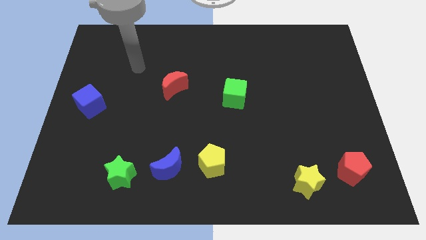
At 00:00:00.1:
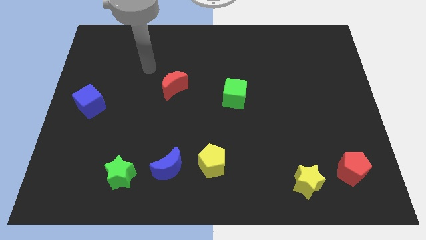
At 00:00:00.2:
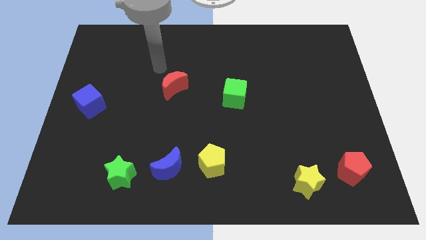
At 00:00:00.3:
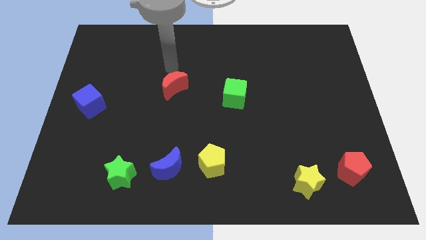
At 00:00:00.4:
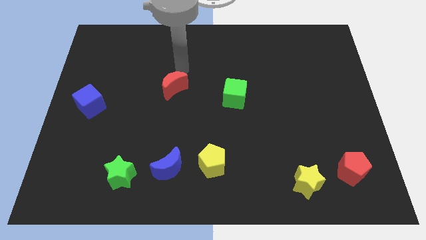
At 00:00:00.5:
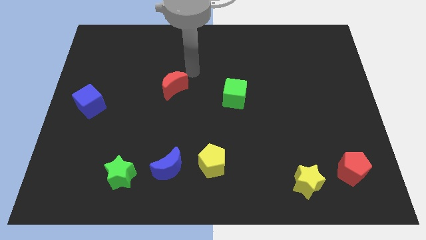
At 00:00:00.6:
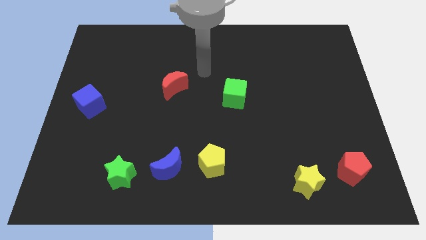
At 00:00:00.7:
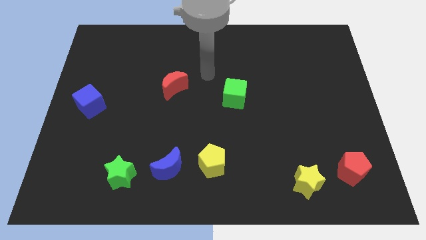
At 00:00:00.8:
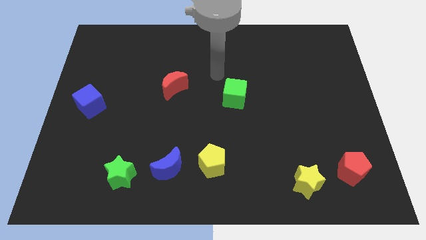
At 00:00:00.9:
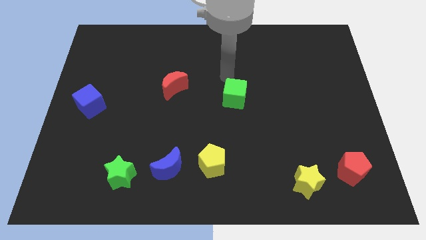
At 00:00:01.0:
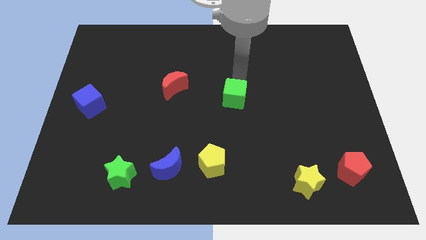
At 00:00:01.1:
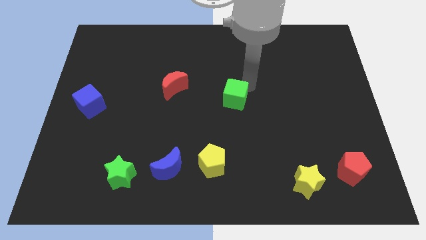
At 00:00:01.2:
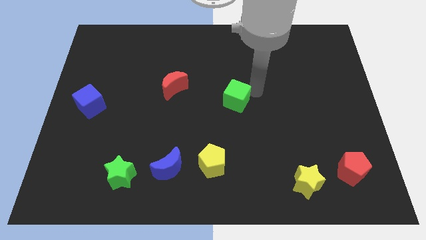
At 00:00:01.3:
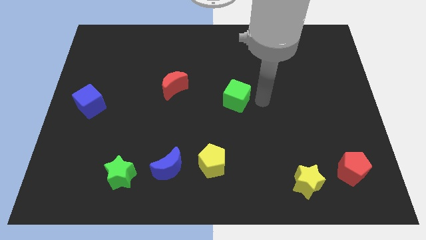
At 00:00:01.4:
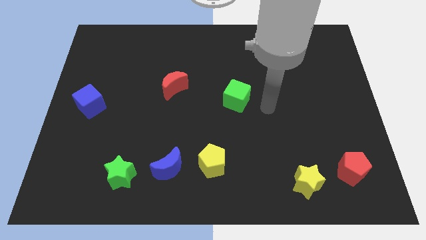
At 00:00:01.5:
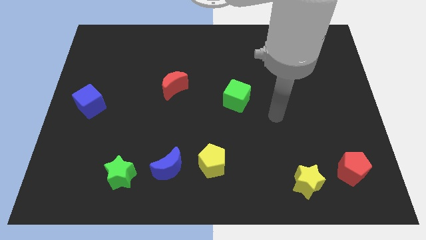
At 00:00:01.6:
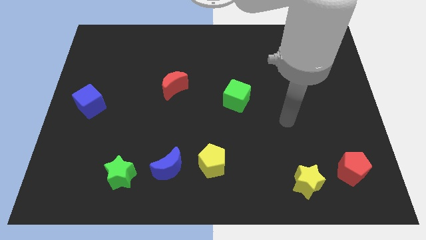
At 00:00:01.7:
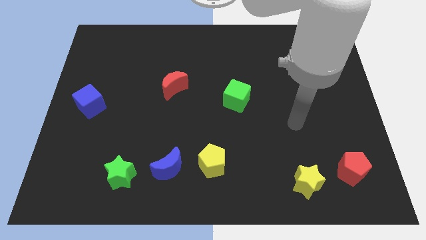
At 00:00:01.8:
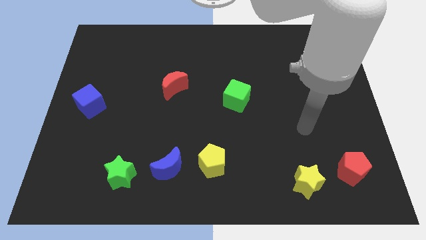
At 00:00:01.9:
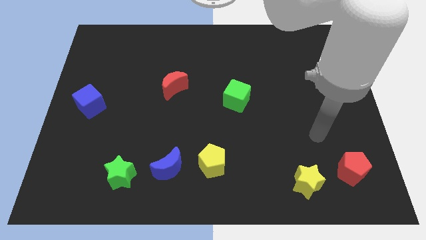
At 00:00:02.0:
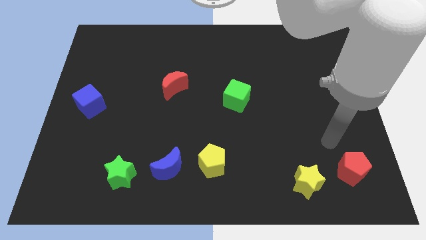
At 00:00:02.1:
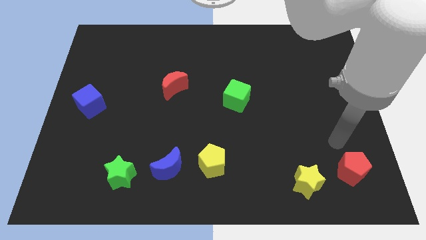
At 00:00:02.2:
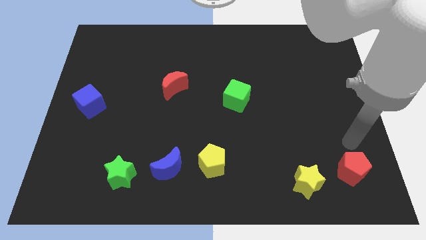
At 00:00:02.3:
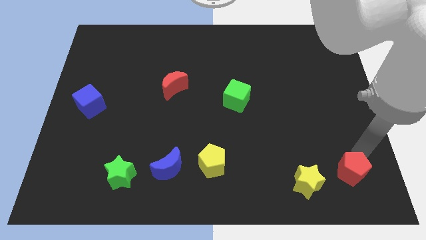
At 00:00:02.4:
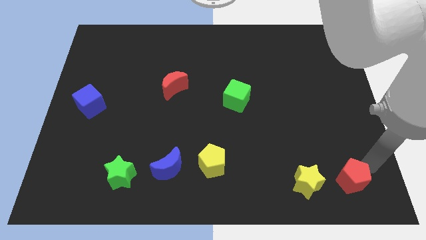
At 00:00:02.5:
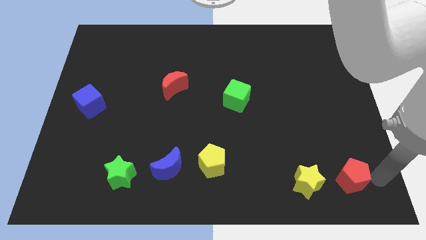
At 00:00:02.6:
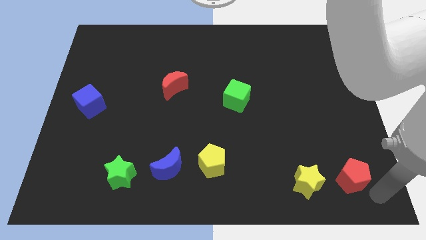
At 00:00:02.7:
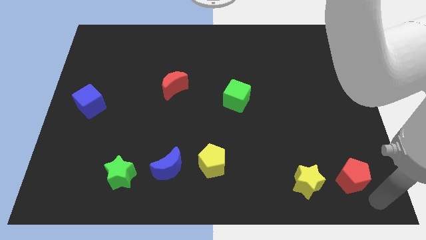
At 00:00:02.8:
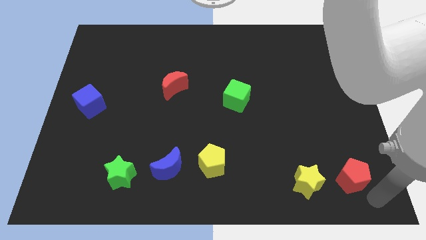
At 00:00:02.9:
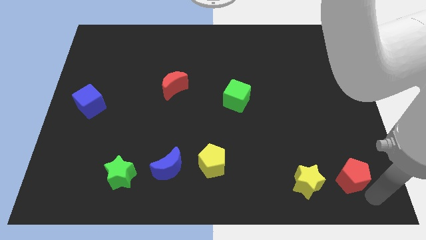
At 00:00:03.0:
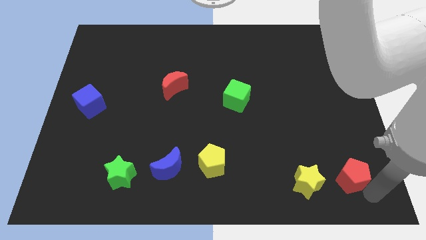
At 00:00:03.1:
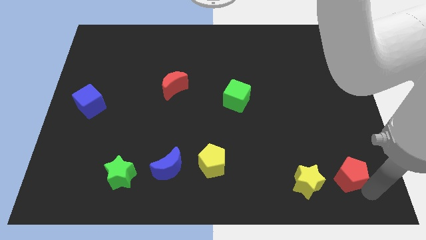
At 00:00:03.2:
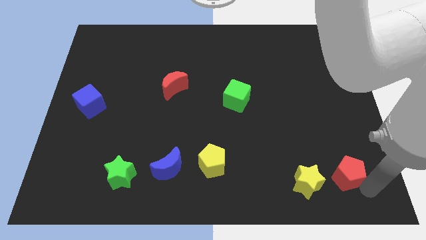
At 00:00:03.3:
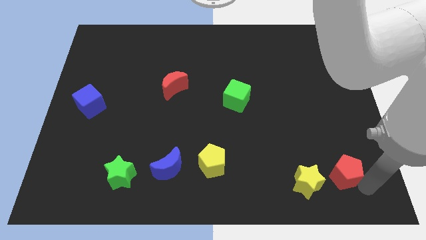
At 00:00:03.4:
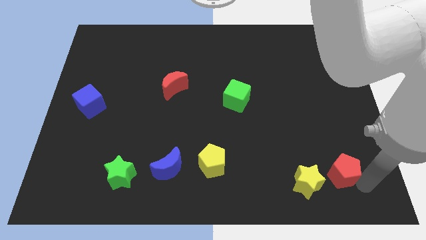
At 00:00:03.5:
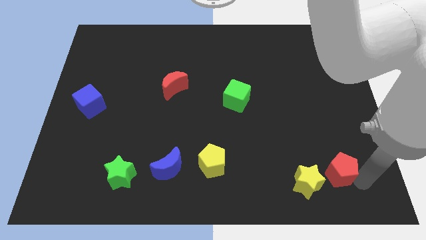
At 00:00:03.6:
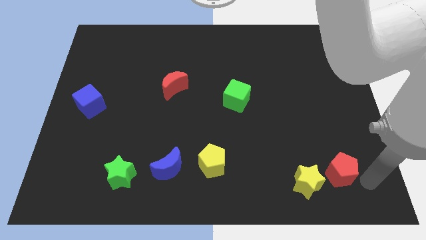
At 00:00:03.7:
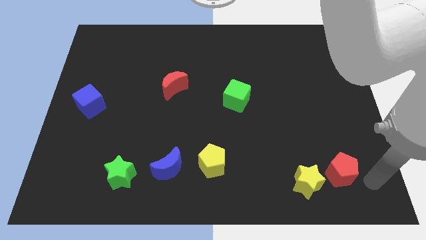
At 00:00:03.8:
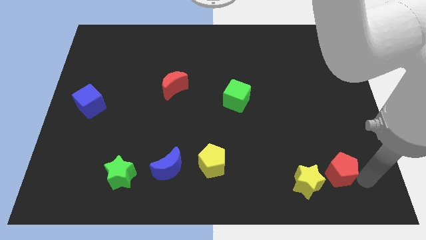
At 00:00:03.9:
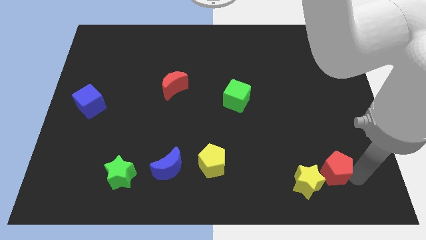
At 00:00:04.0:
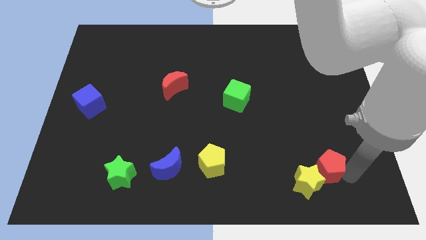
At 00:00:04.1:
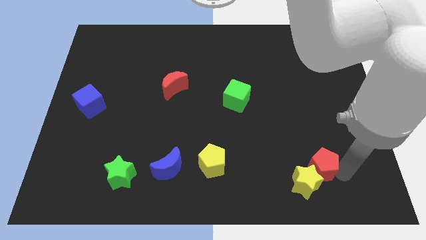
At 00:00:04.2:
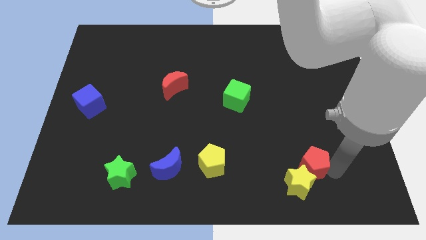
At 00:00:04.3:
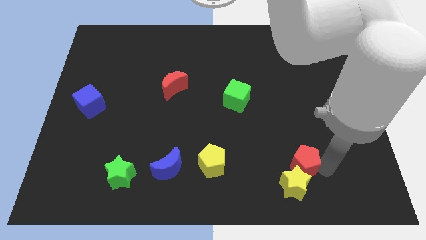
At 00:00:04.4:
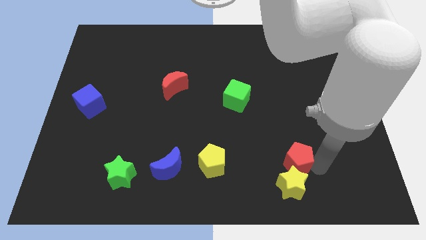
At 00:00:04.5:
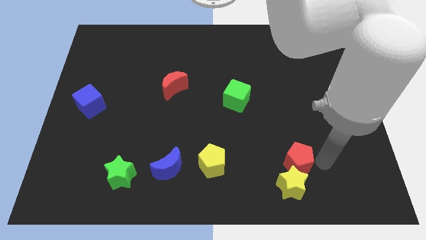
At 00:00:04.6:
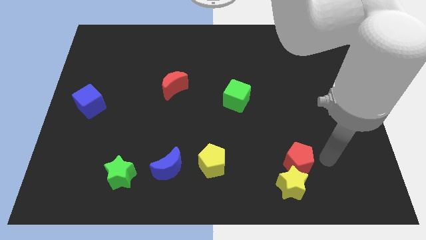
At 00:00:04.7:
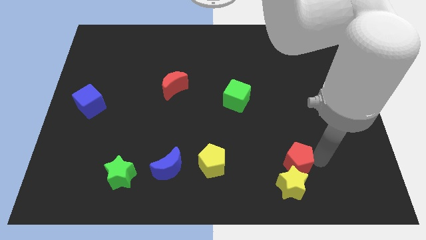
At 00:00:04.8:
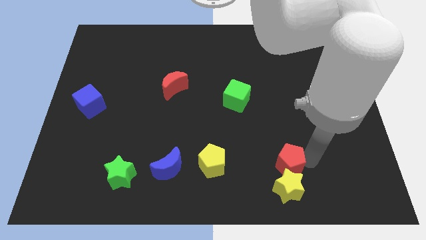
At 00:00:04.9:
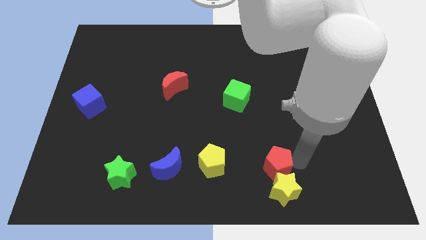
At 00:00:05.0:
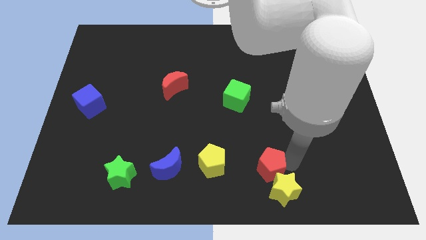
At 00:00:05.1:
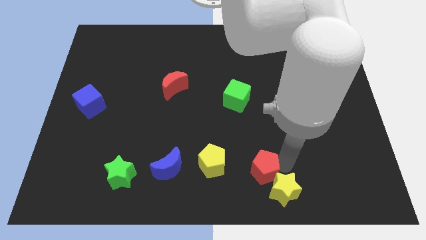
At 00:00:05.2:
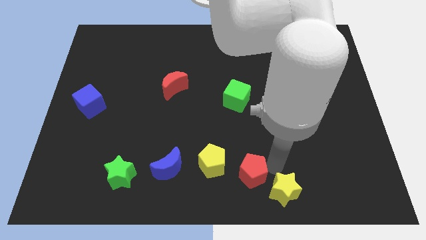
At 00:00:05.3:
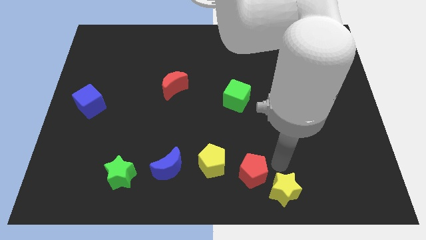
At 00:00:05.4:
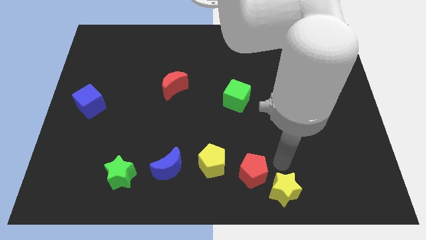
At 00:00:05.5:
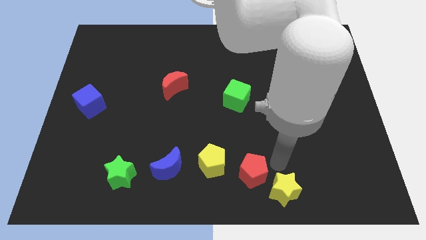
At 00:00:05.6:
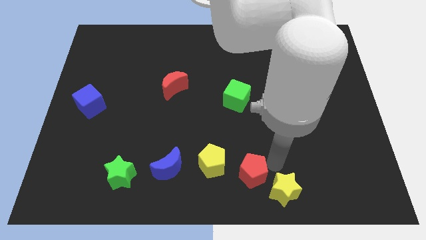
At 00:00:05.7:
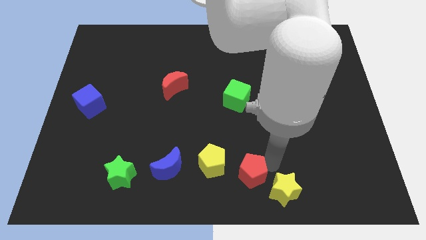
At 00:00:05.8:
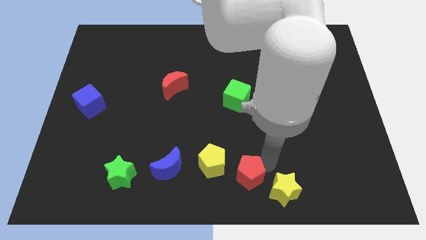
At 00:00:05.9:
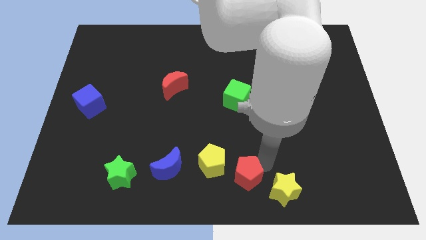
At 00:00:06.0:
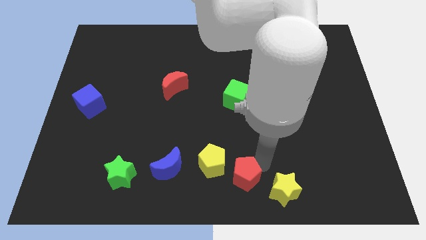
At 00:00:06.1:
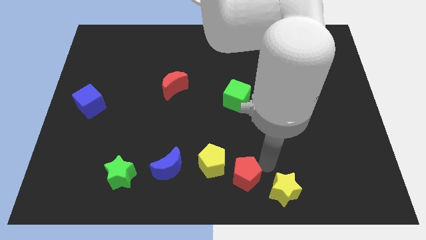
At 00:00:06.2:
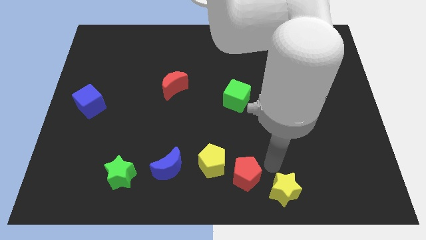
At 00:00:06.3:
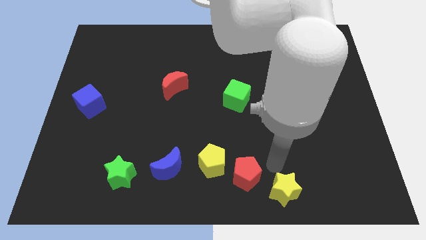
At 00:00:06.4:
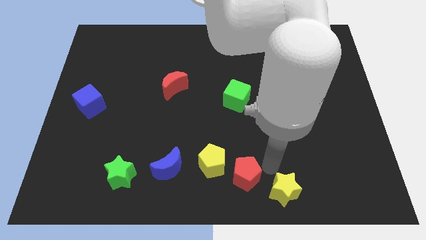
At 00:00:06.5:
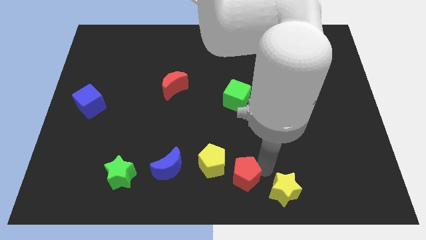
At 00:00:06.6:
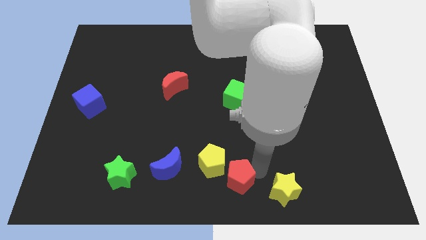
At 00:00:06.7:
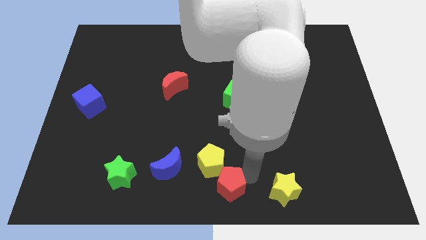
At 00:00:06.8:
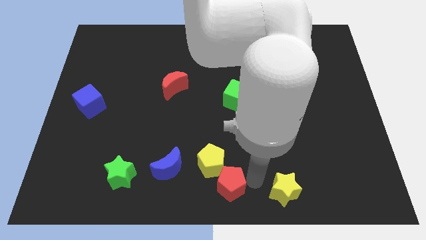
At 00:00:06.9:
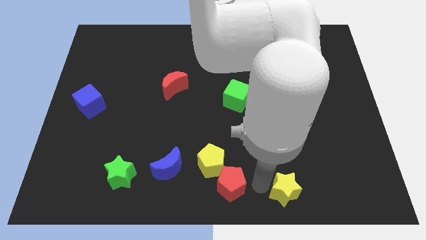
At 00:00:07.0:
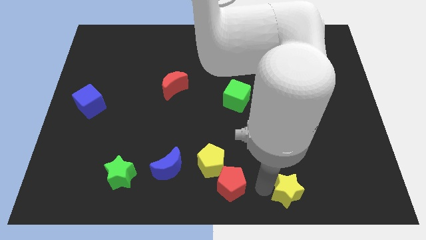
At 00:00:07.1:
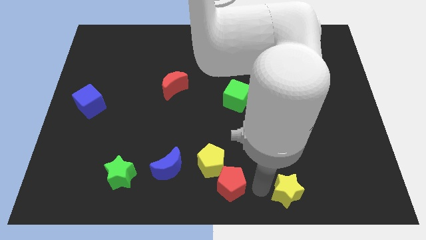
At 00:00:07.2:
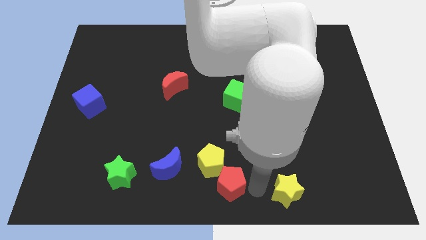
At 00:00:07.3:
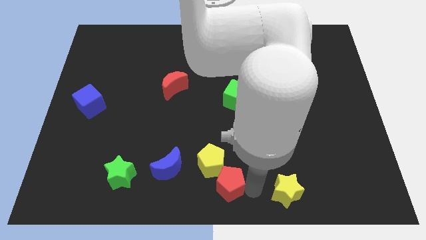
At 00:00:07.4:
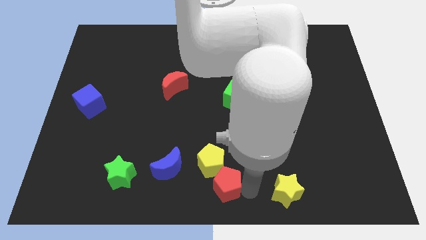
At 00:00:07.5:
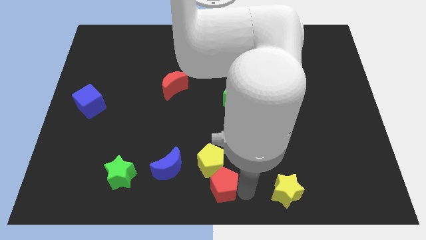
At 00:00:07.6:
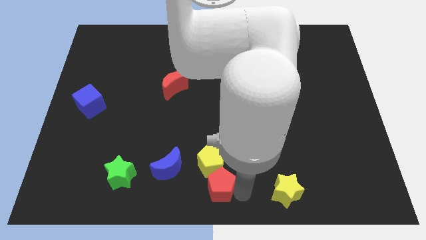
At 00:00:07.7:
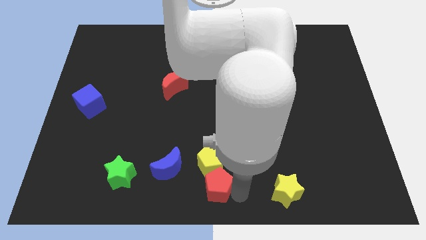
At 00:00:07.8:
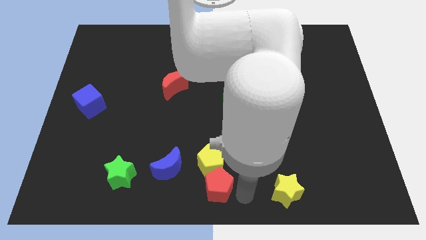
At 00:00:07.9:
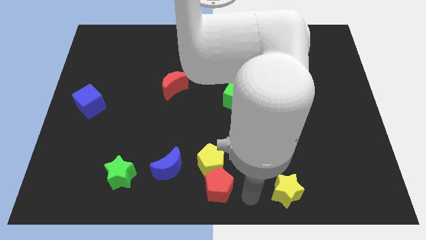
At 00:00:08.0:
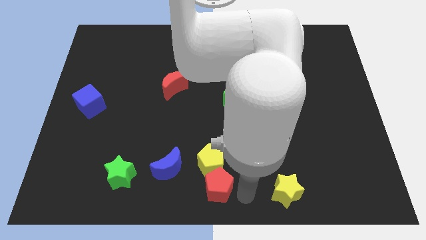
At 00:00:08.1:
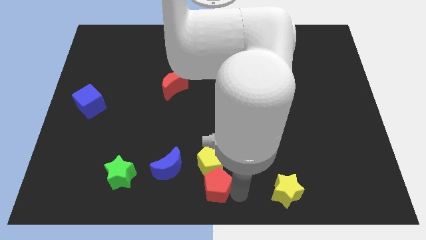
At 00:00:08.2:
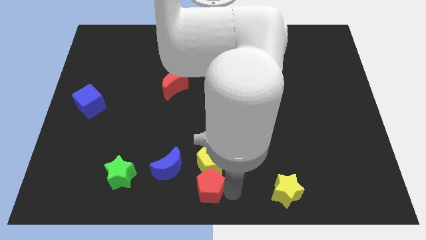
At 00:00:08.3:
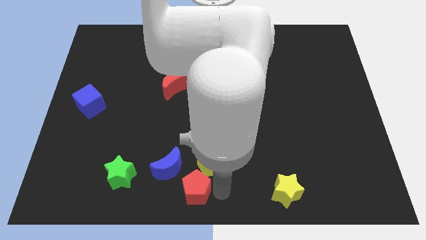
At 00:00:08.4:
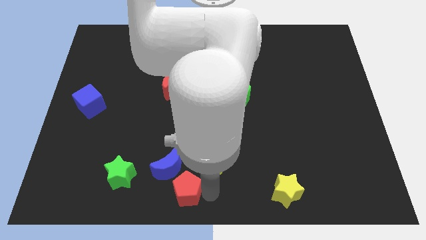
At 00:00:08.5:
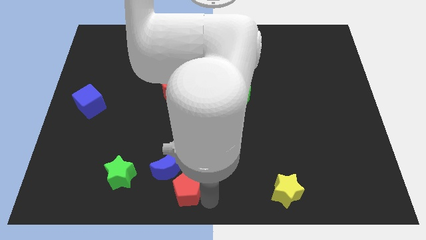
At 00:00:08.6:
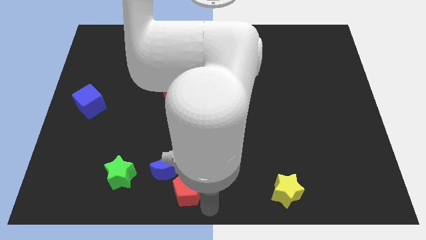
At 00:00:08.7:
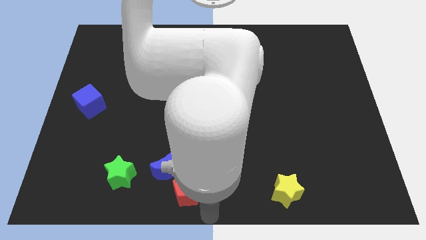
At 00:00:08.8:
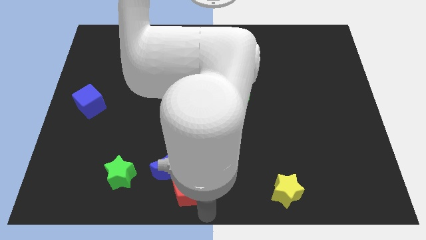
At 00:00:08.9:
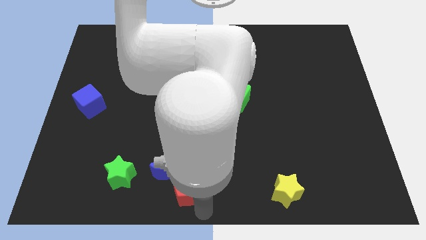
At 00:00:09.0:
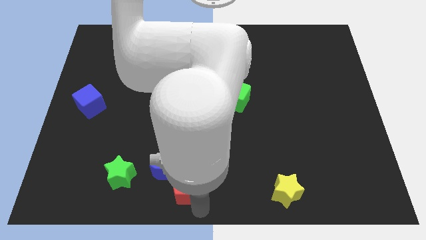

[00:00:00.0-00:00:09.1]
push the red pentagon next to the blue moon
